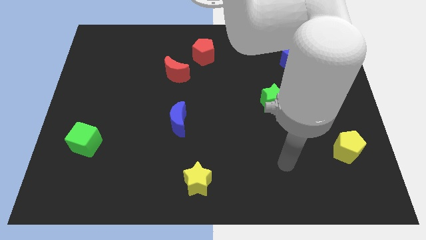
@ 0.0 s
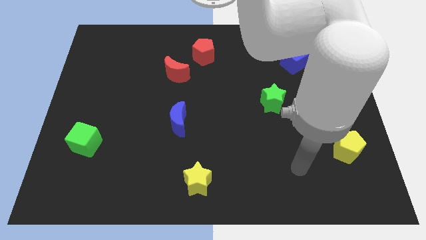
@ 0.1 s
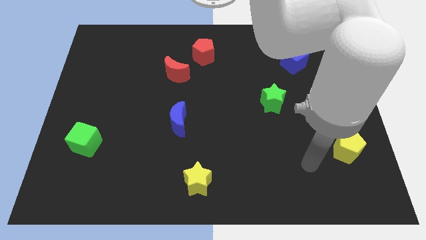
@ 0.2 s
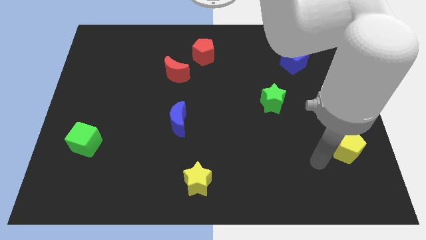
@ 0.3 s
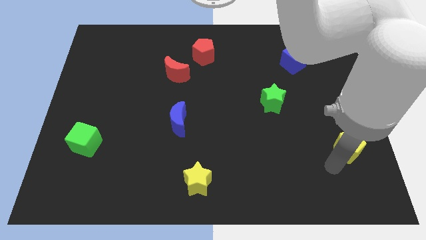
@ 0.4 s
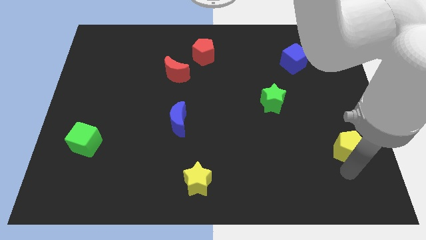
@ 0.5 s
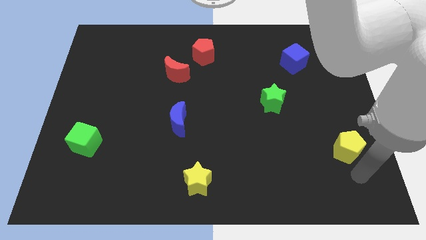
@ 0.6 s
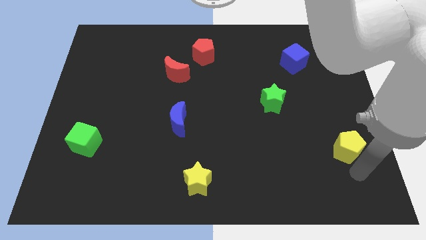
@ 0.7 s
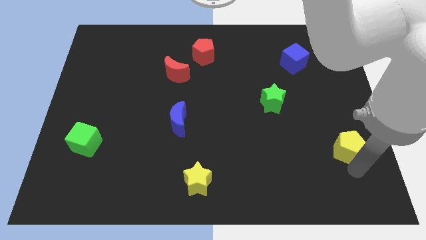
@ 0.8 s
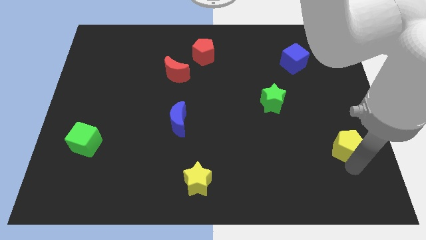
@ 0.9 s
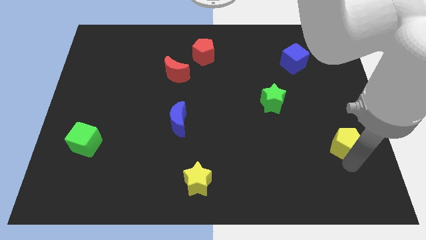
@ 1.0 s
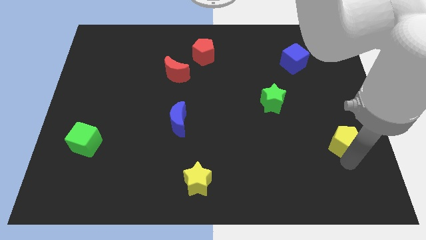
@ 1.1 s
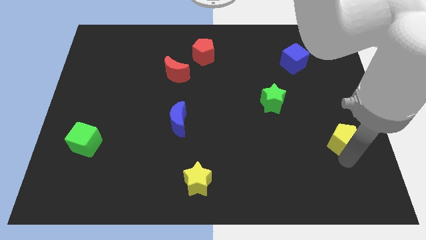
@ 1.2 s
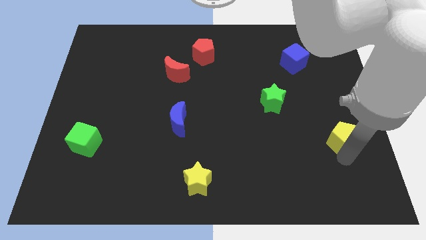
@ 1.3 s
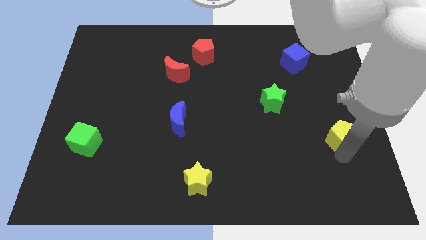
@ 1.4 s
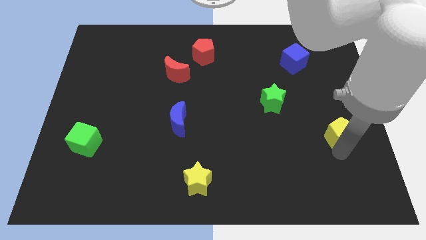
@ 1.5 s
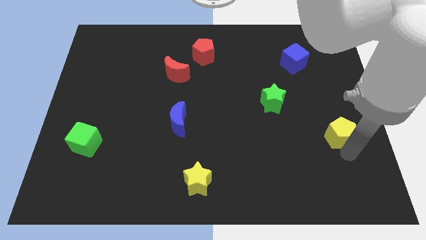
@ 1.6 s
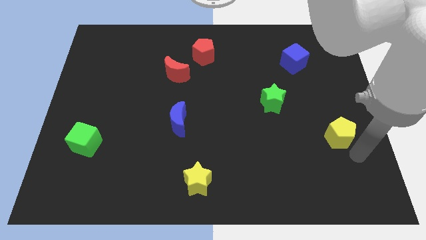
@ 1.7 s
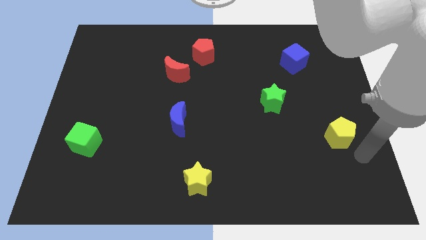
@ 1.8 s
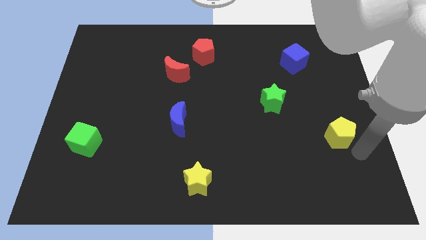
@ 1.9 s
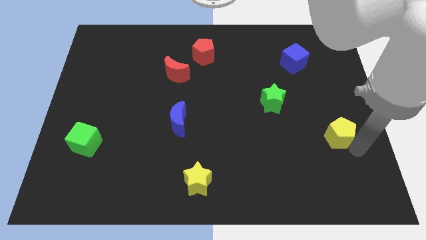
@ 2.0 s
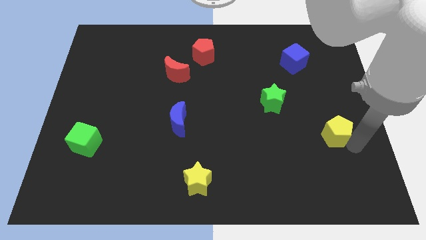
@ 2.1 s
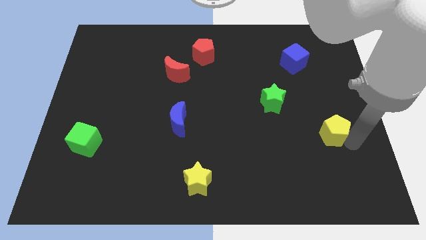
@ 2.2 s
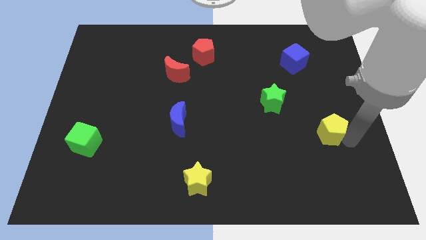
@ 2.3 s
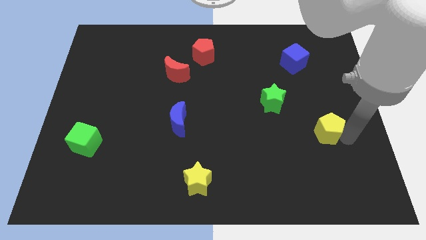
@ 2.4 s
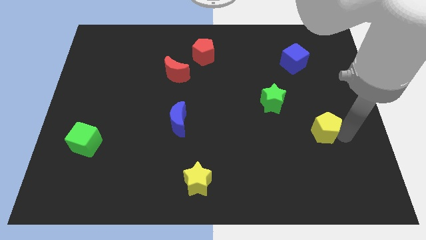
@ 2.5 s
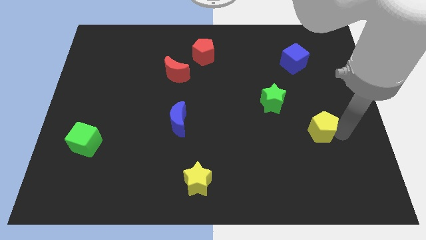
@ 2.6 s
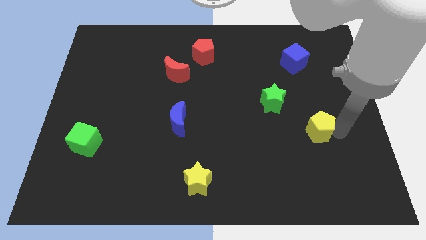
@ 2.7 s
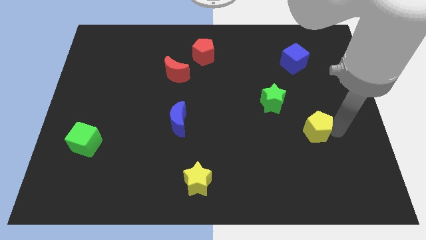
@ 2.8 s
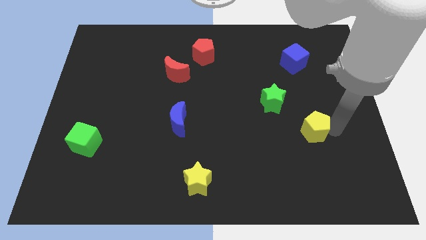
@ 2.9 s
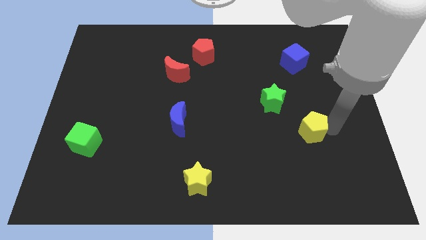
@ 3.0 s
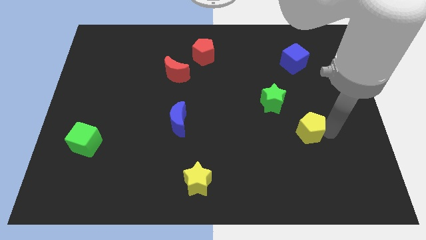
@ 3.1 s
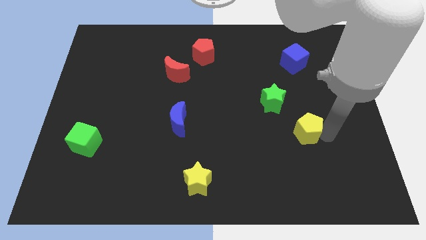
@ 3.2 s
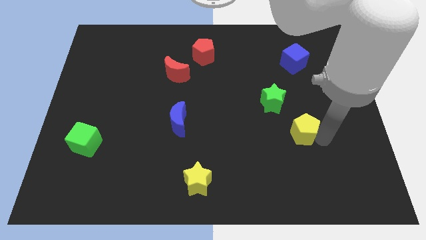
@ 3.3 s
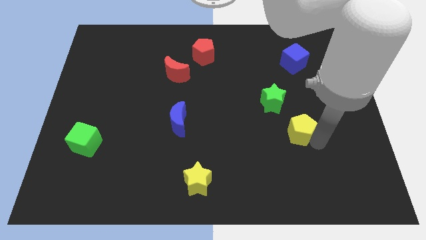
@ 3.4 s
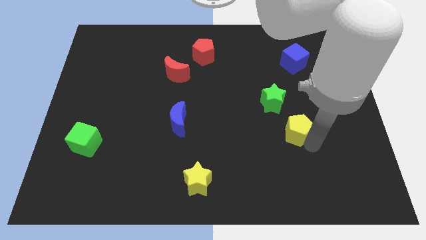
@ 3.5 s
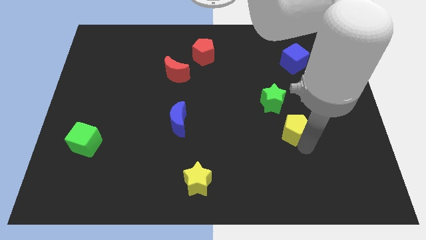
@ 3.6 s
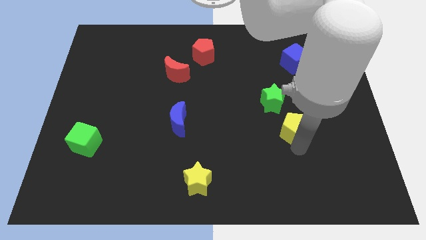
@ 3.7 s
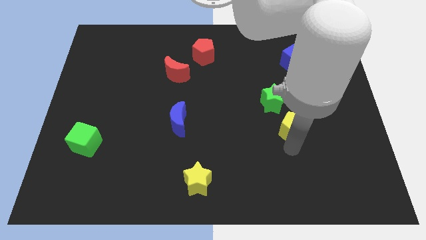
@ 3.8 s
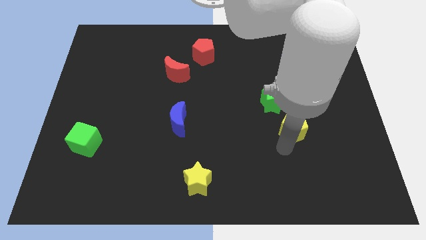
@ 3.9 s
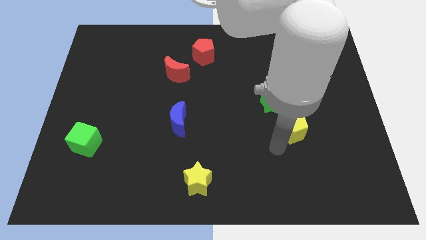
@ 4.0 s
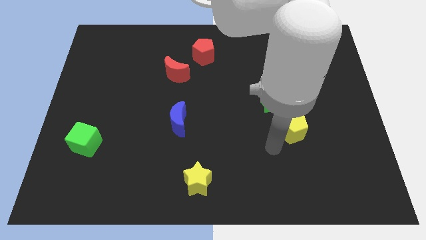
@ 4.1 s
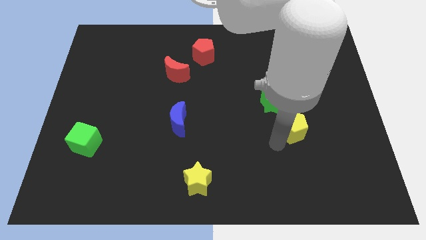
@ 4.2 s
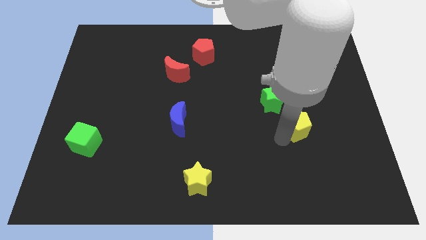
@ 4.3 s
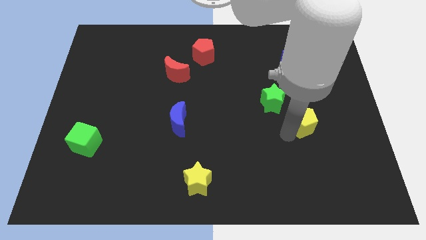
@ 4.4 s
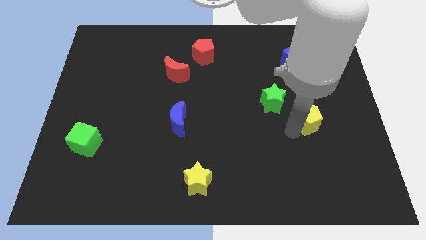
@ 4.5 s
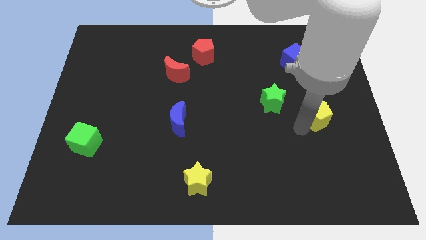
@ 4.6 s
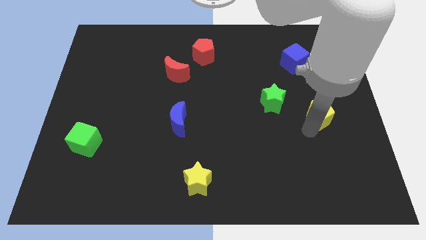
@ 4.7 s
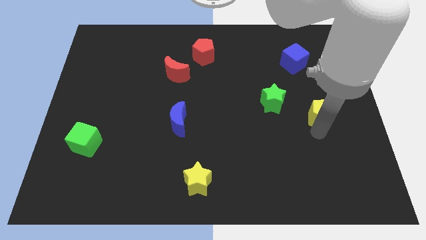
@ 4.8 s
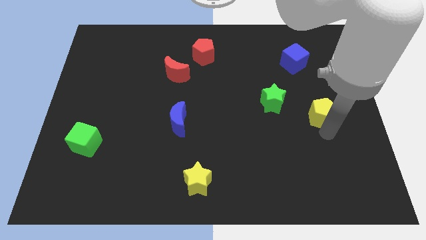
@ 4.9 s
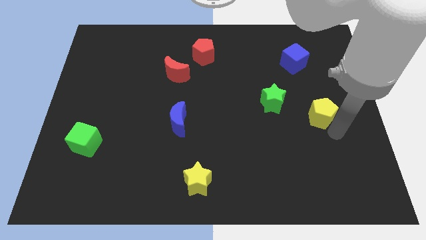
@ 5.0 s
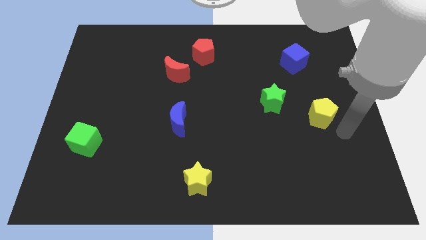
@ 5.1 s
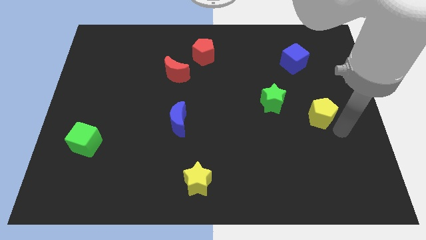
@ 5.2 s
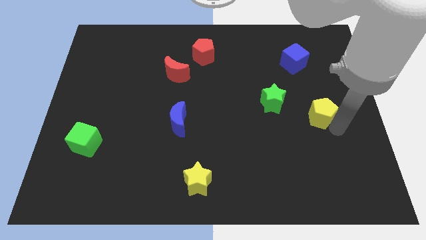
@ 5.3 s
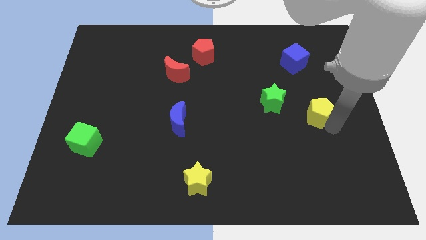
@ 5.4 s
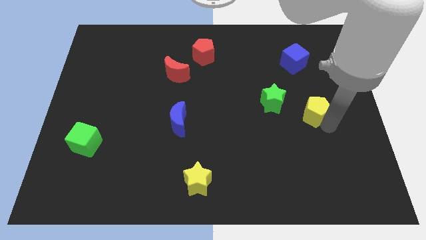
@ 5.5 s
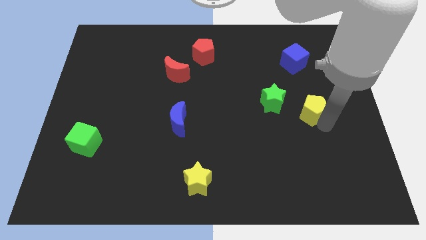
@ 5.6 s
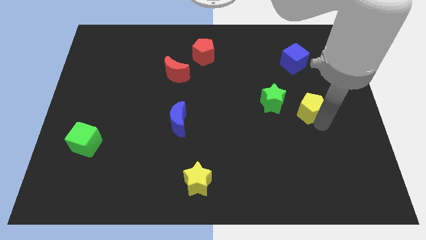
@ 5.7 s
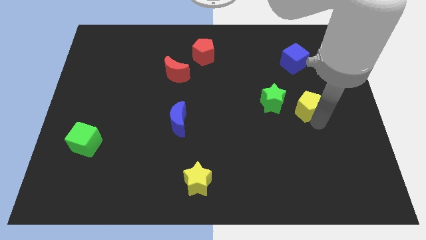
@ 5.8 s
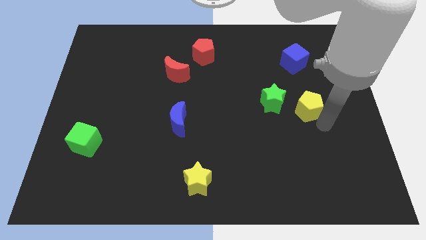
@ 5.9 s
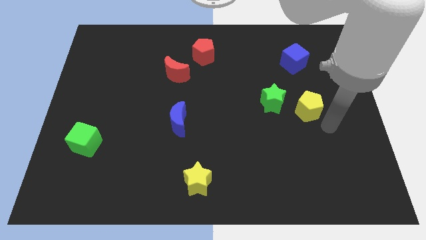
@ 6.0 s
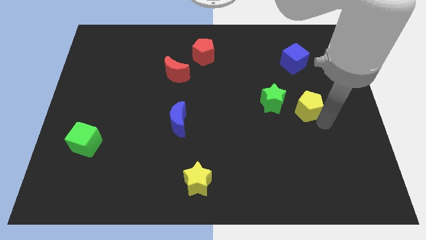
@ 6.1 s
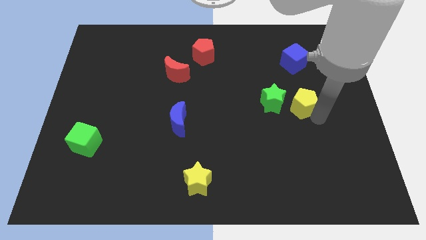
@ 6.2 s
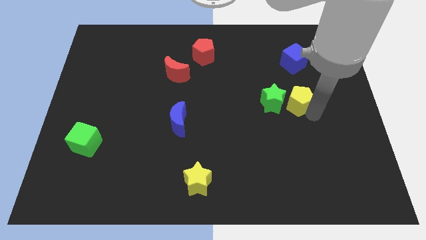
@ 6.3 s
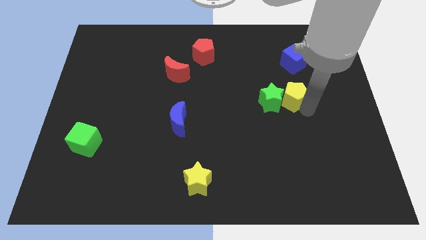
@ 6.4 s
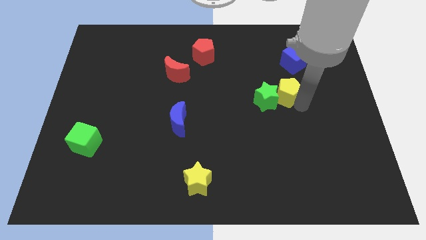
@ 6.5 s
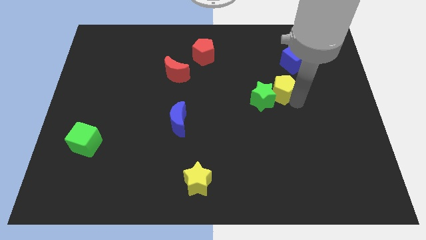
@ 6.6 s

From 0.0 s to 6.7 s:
slide the yellow pentagon up and then left

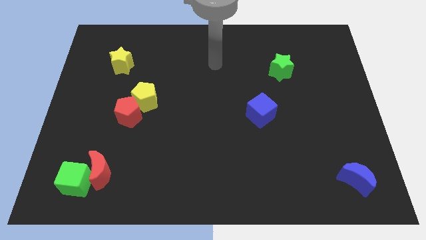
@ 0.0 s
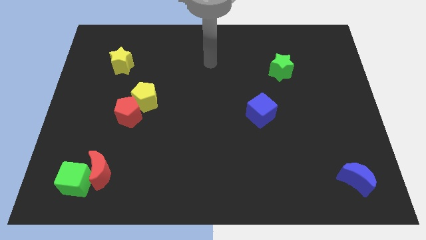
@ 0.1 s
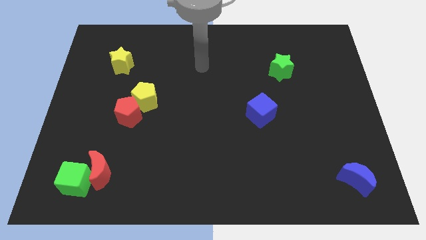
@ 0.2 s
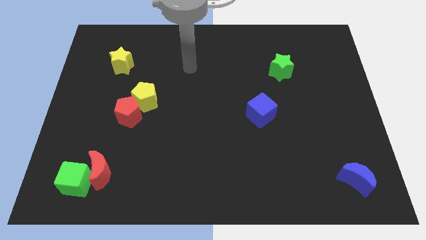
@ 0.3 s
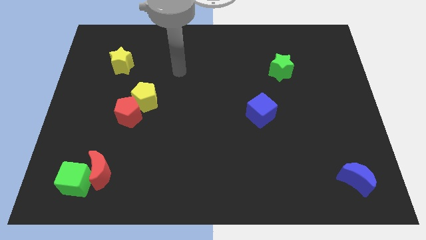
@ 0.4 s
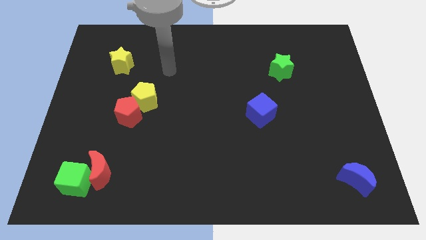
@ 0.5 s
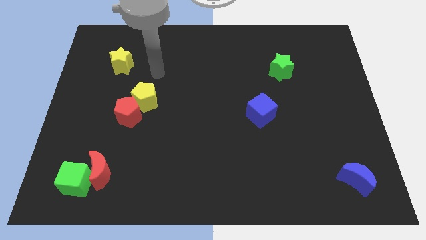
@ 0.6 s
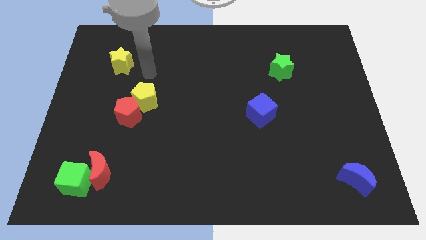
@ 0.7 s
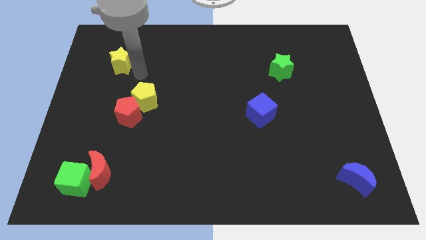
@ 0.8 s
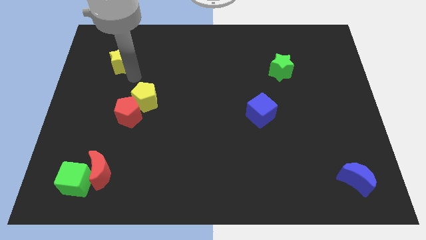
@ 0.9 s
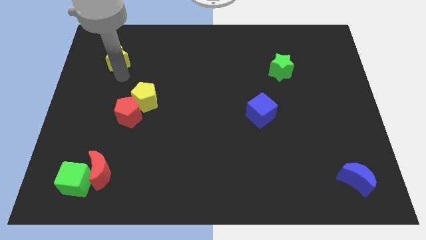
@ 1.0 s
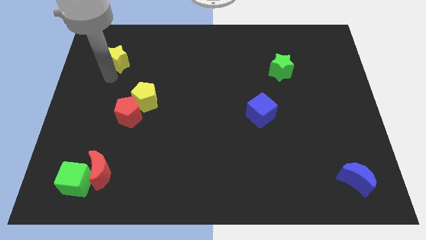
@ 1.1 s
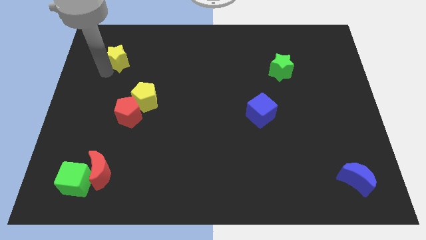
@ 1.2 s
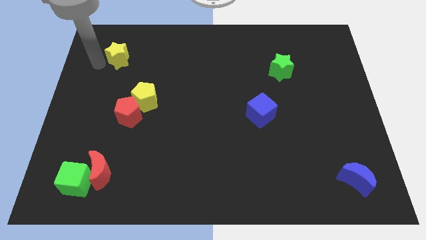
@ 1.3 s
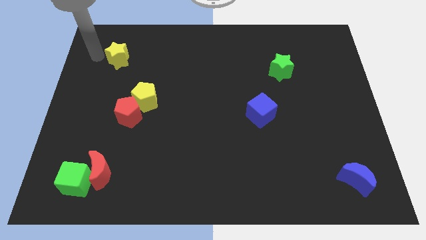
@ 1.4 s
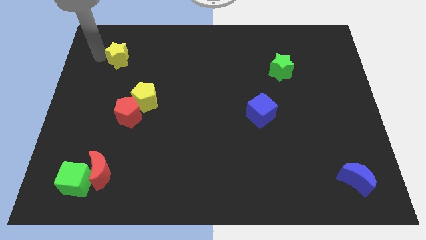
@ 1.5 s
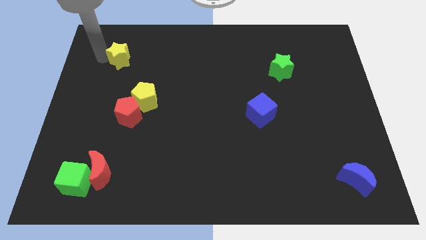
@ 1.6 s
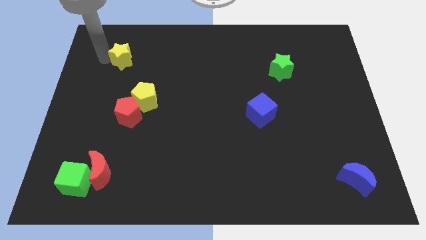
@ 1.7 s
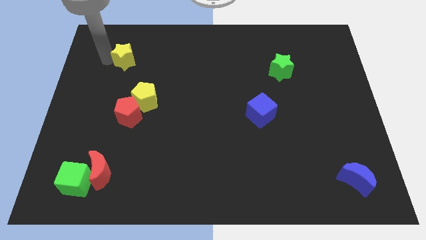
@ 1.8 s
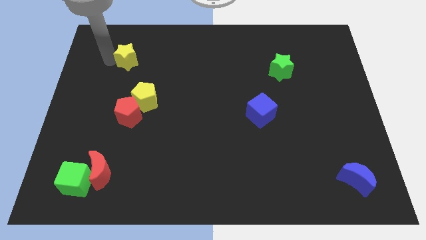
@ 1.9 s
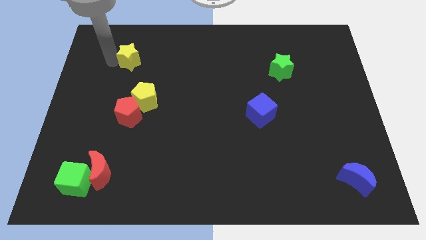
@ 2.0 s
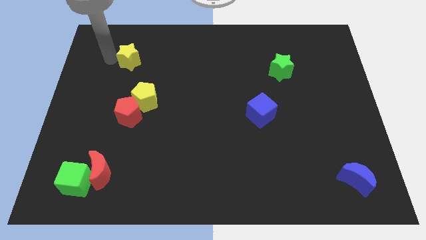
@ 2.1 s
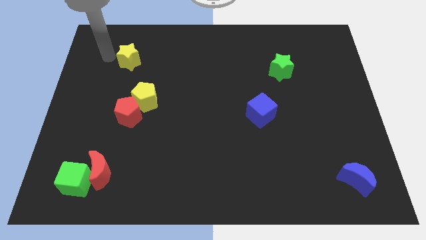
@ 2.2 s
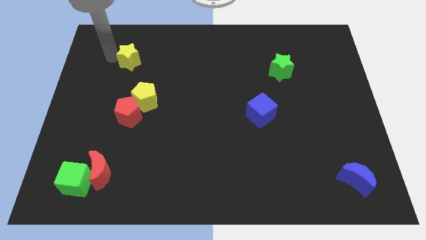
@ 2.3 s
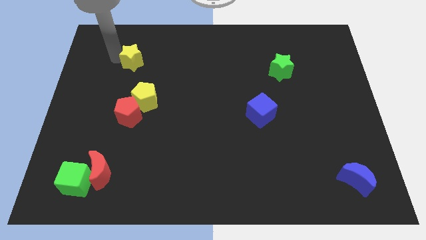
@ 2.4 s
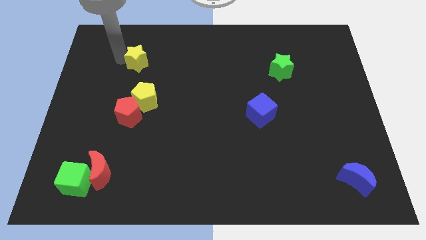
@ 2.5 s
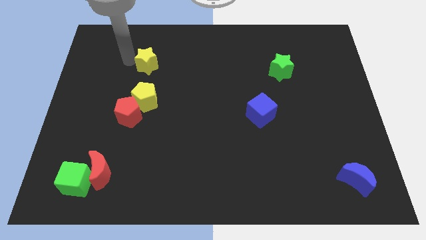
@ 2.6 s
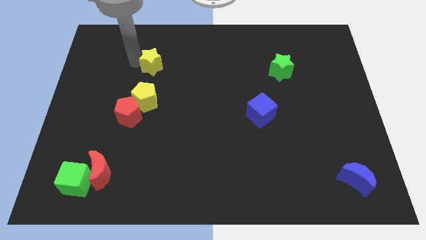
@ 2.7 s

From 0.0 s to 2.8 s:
push the yellow star right a little bit
